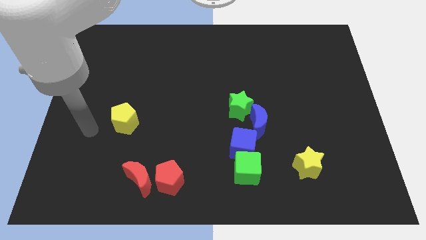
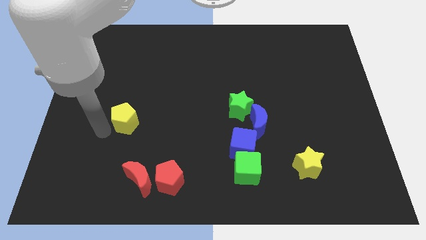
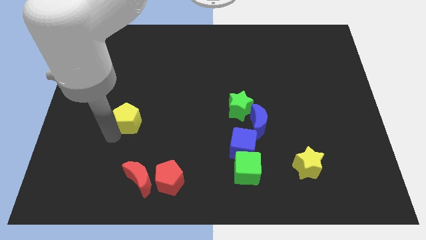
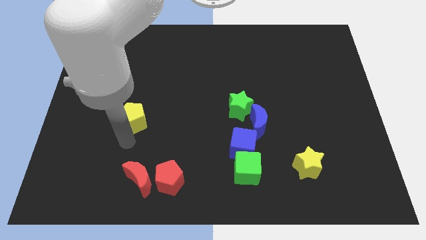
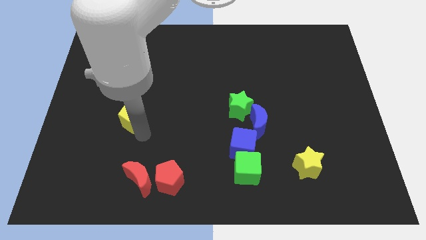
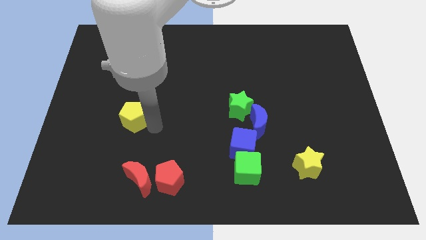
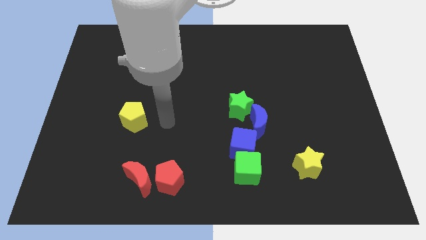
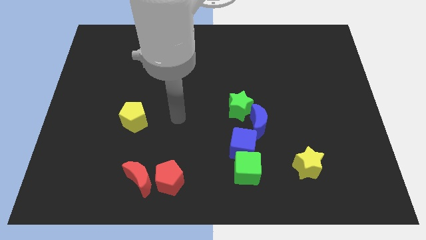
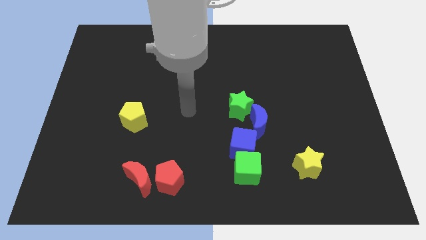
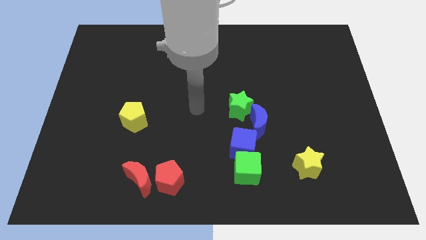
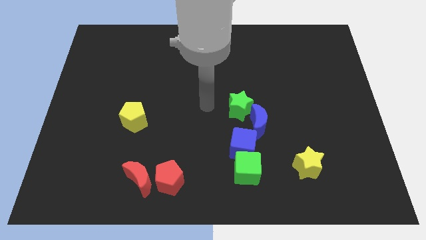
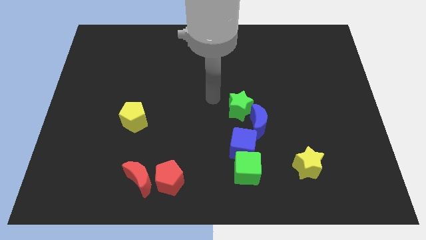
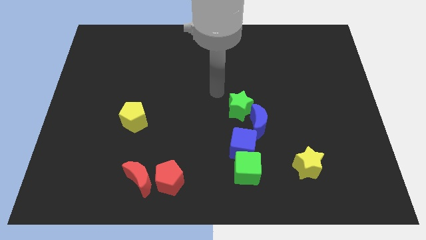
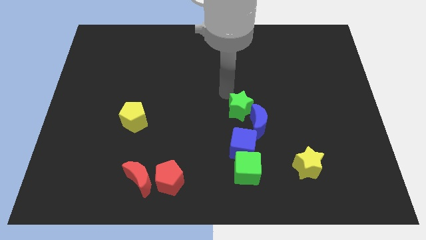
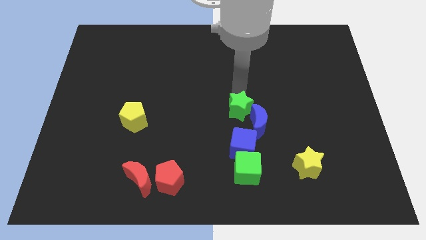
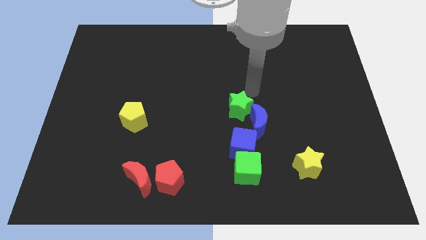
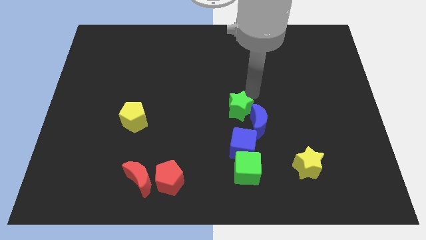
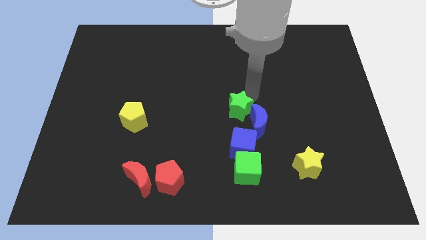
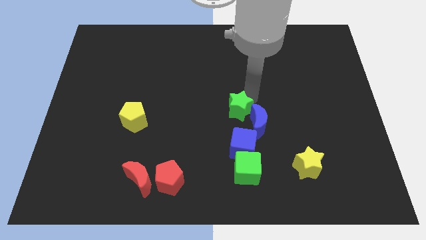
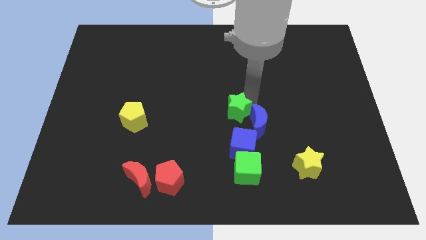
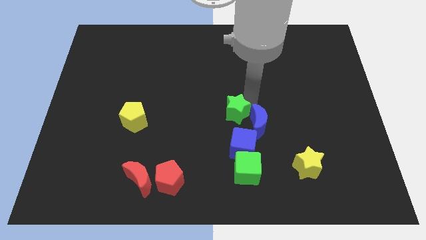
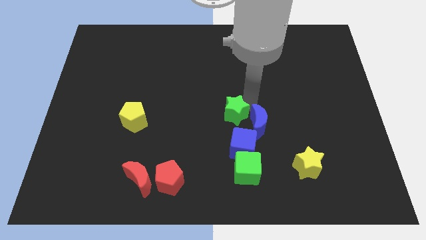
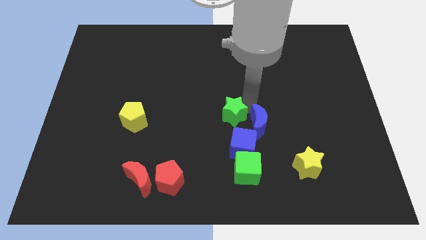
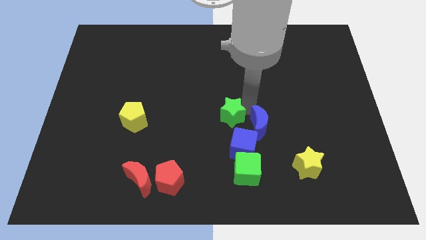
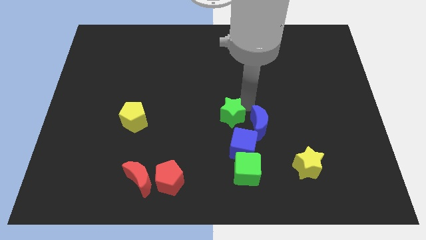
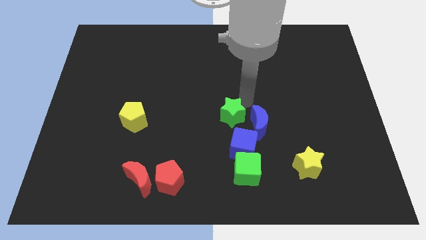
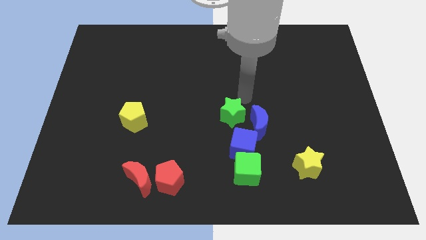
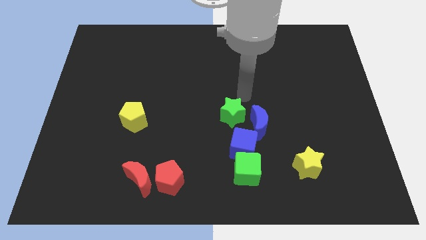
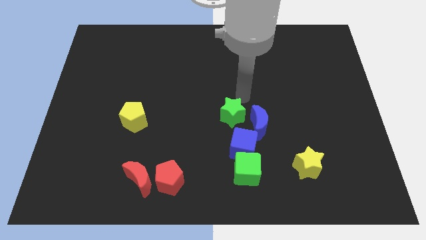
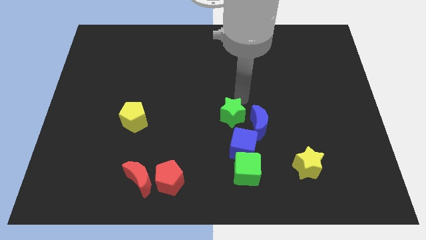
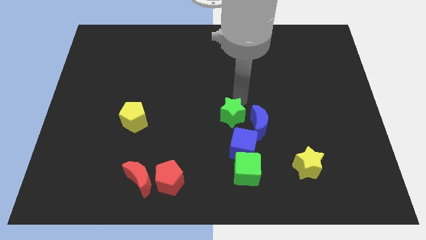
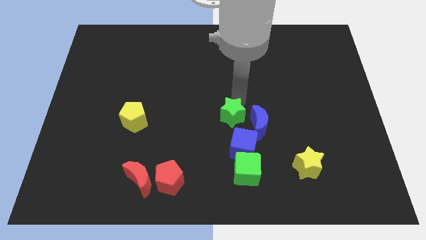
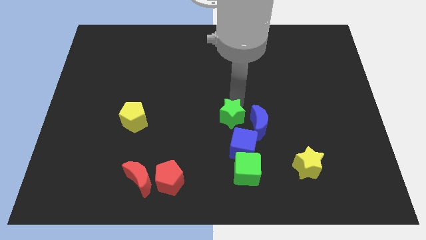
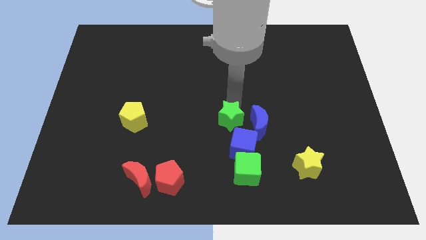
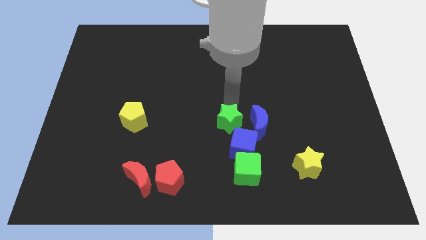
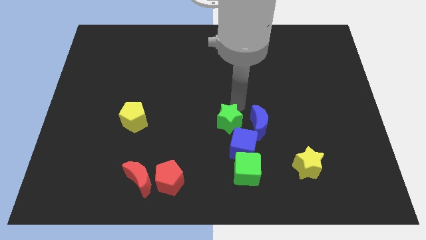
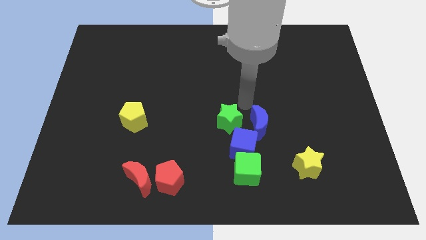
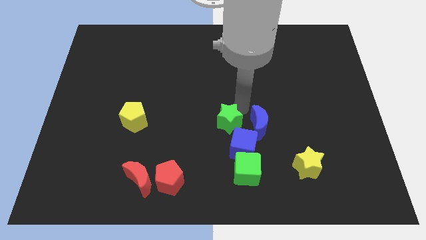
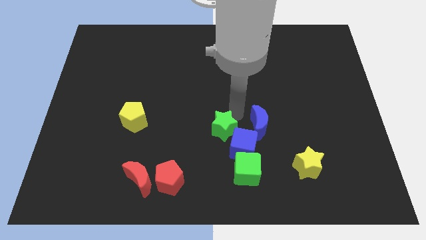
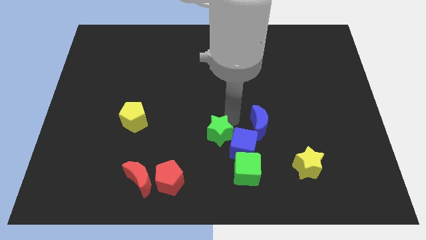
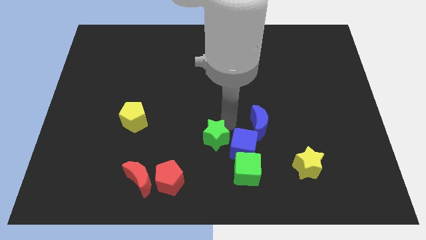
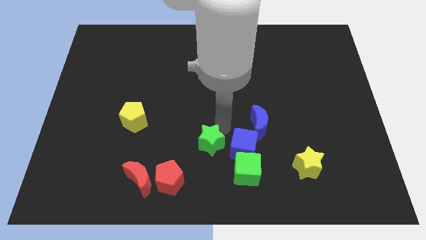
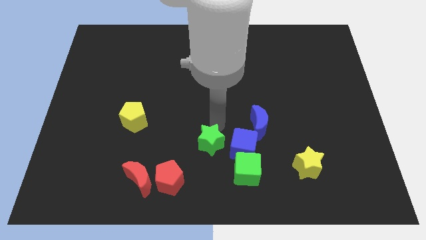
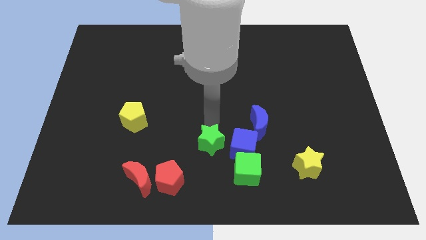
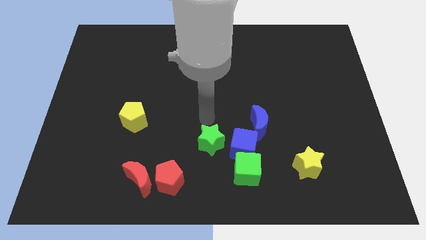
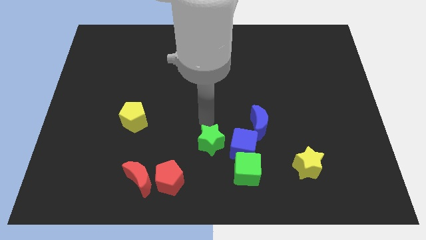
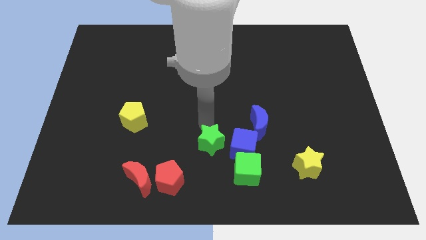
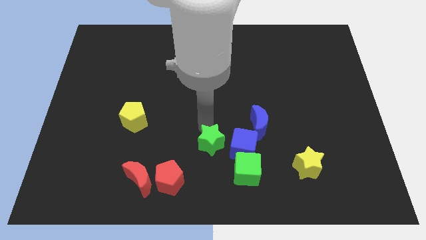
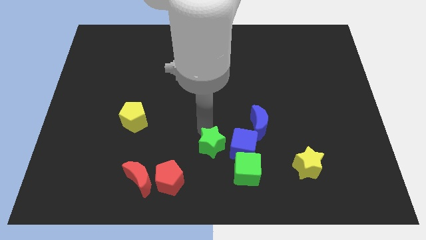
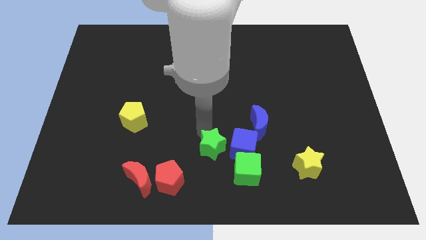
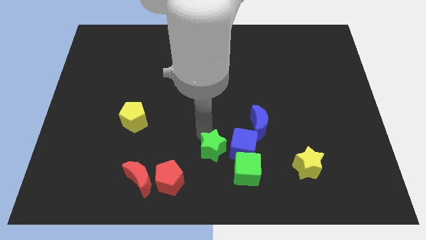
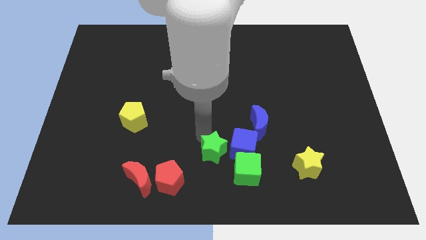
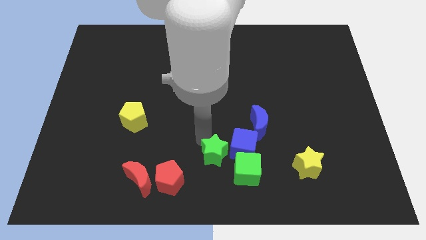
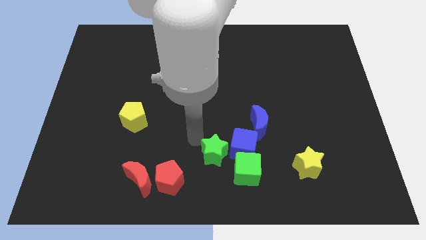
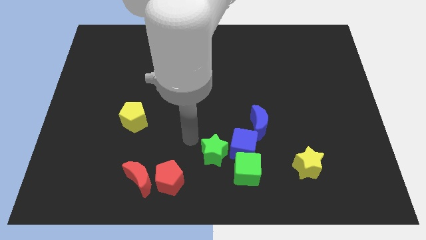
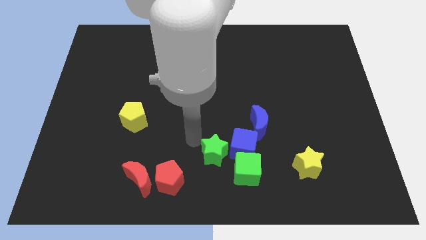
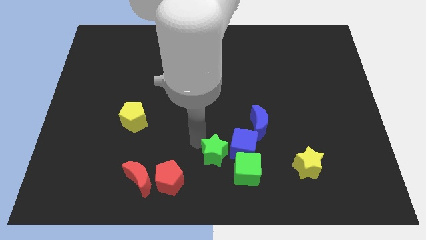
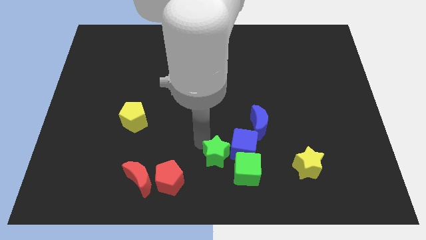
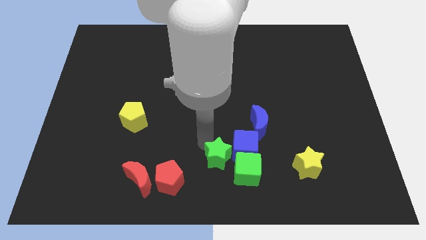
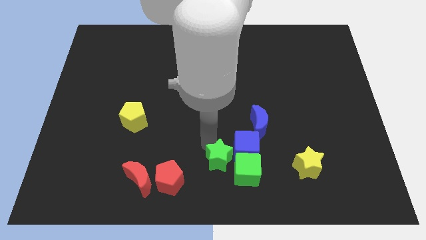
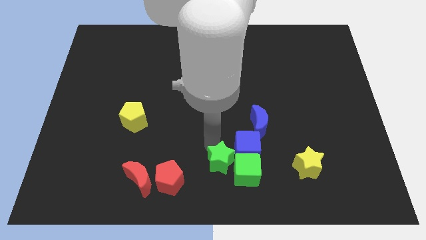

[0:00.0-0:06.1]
slide the green star next to the green cube

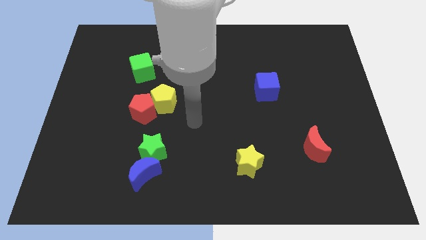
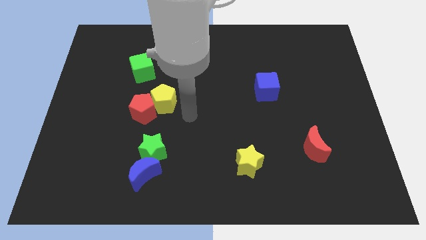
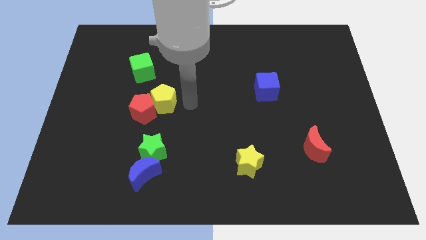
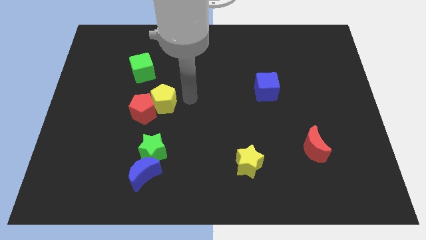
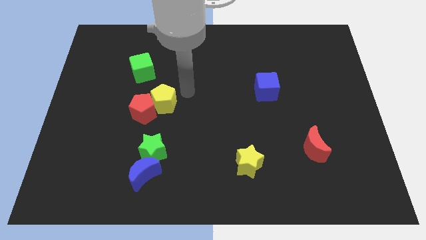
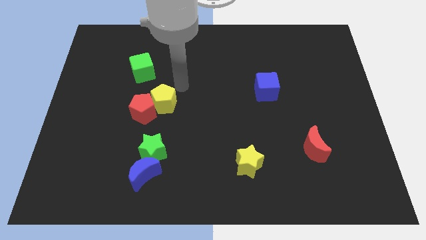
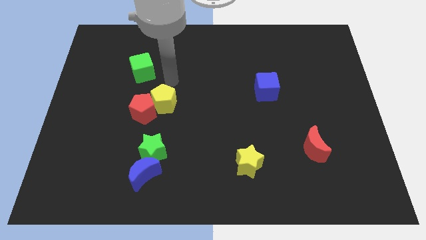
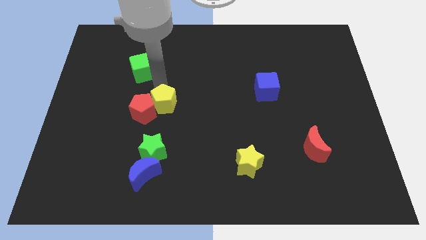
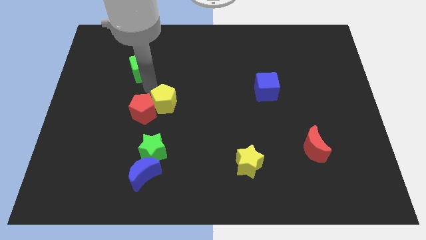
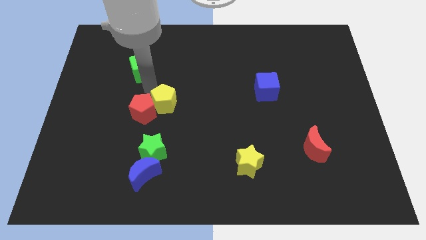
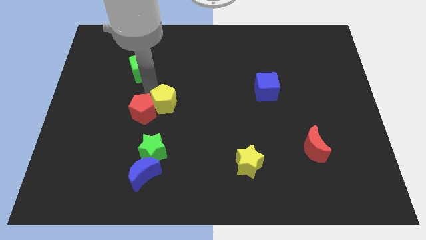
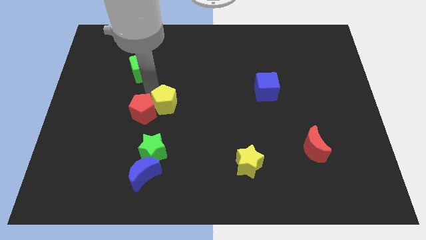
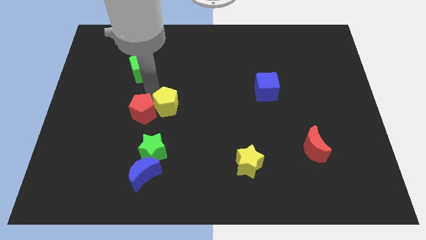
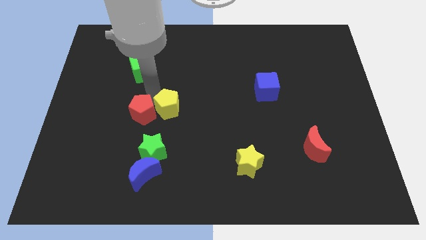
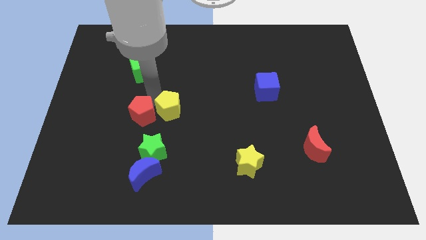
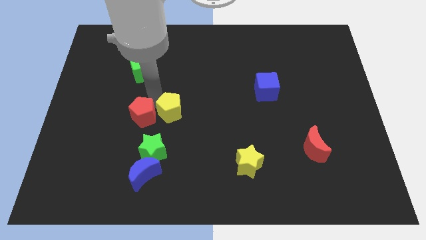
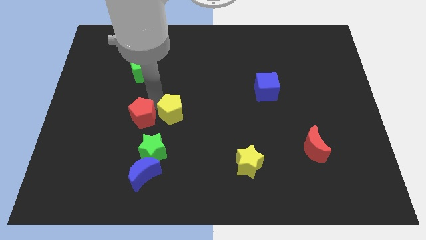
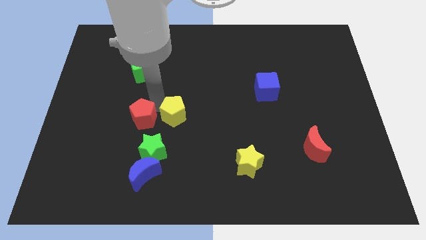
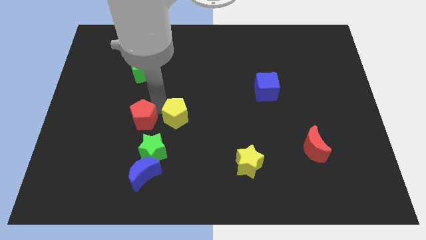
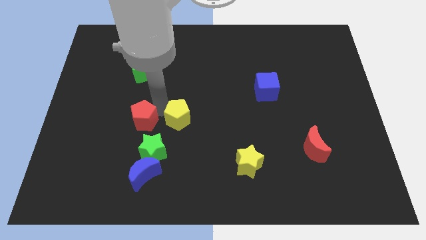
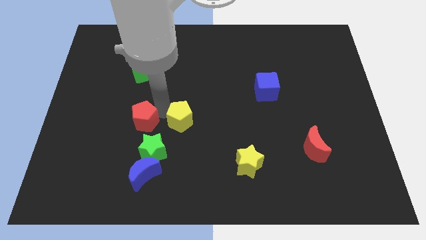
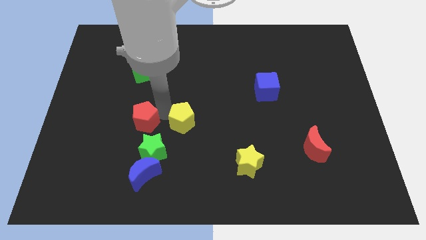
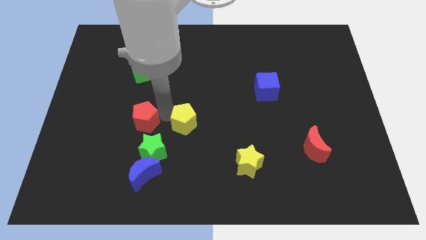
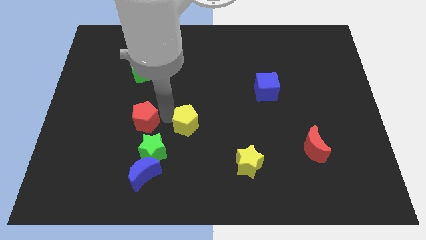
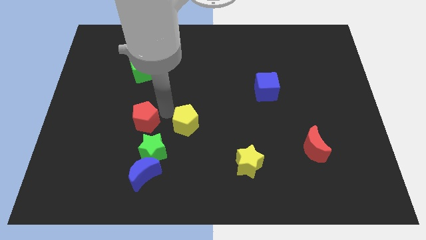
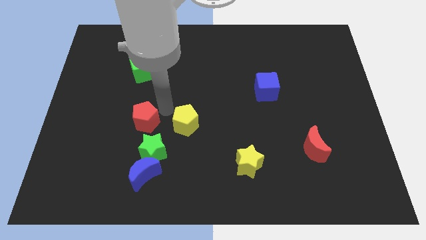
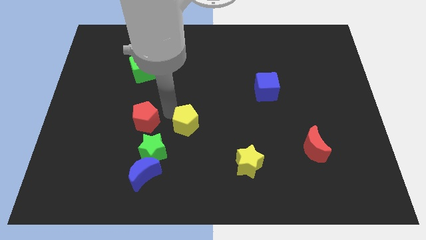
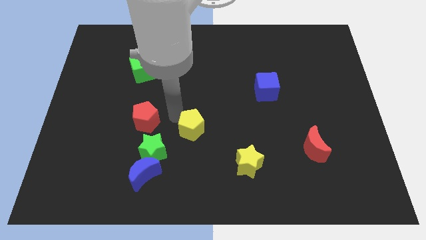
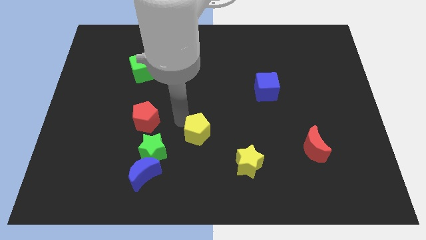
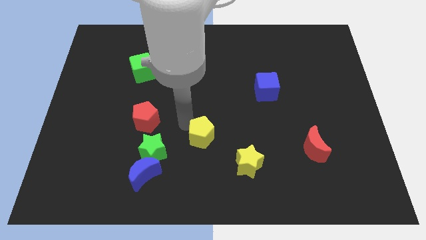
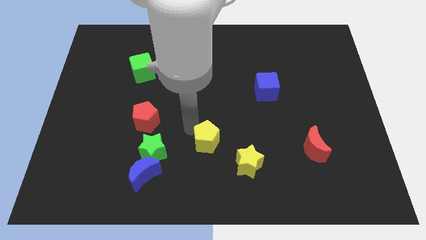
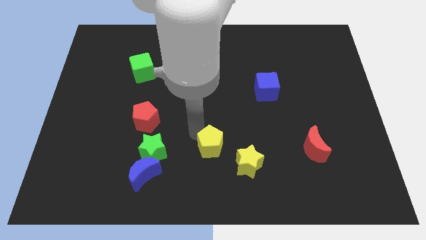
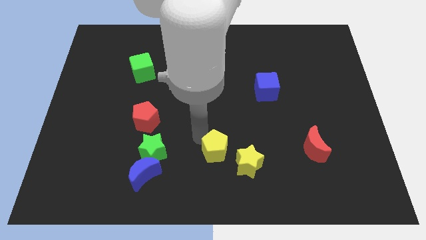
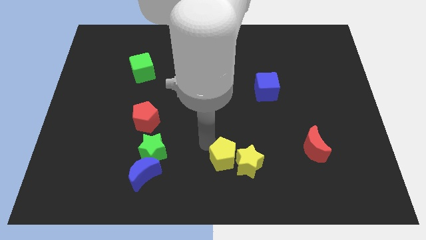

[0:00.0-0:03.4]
put the yellow pentagon to the yellow star
